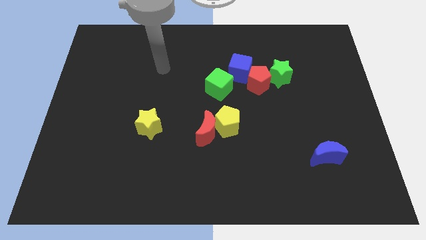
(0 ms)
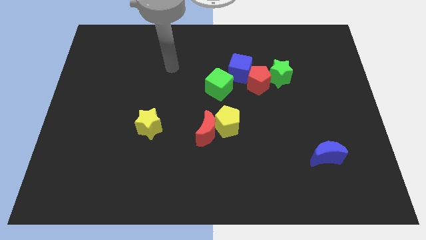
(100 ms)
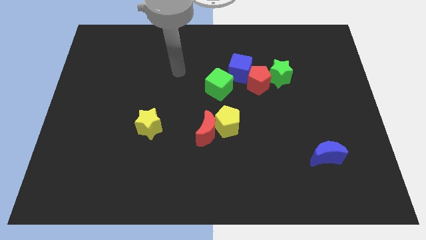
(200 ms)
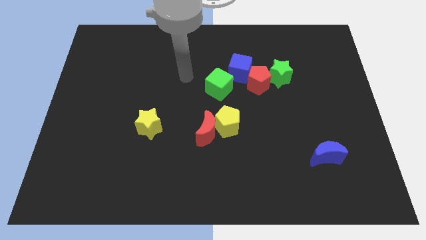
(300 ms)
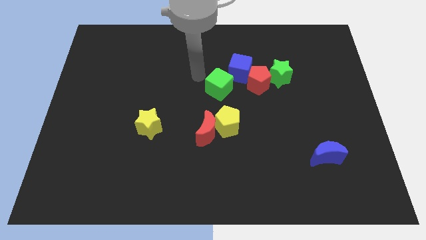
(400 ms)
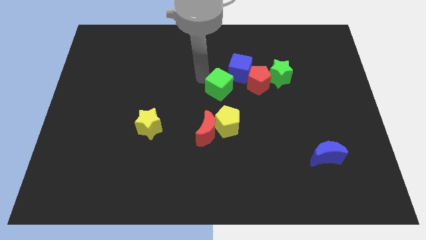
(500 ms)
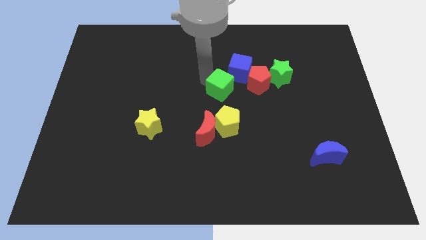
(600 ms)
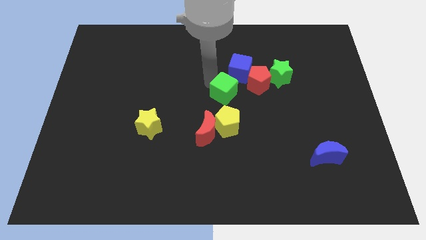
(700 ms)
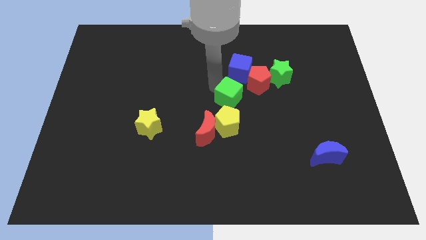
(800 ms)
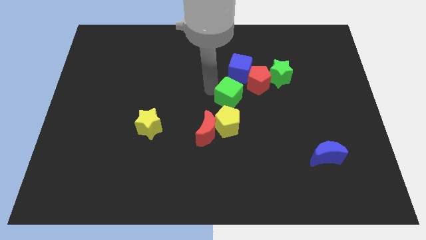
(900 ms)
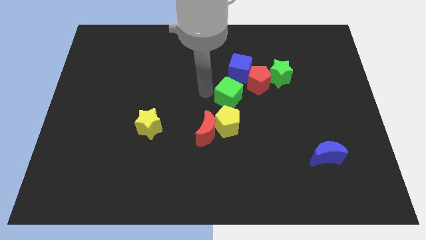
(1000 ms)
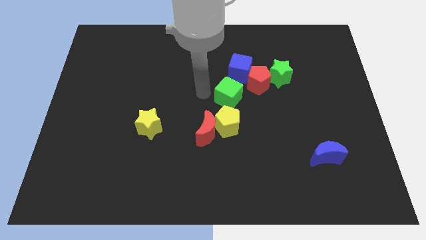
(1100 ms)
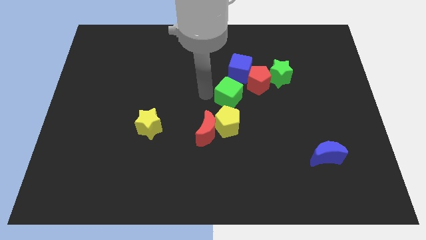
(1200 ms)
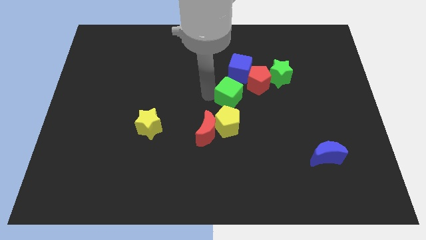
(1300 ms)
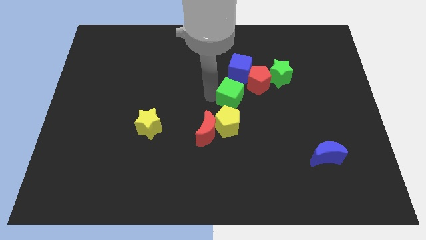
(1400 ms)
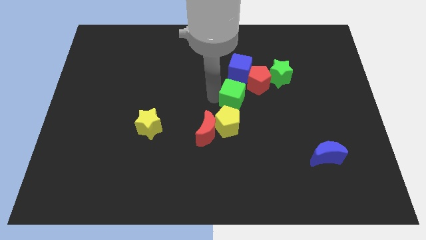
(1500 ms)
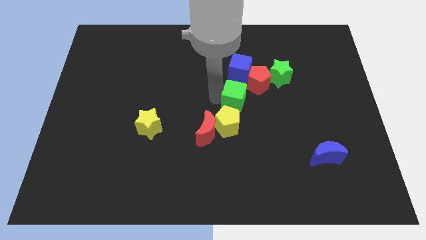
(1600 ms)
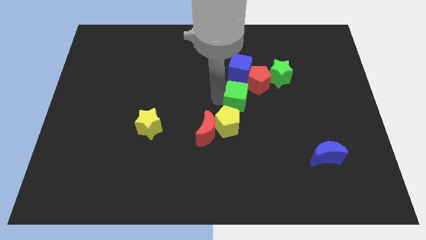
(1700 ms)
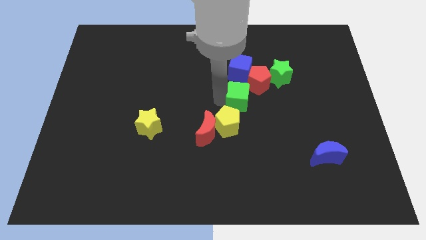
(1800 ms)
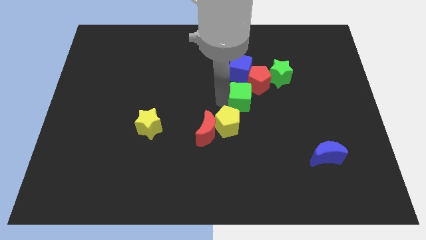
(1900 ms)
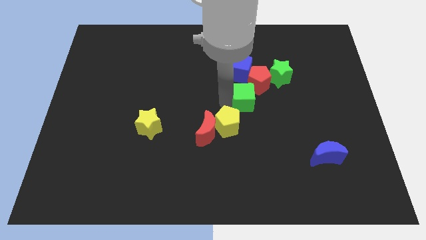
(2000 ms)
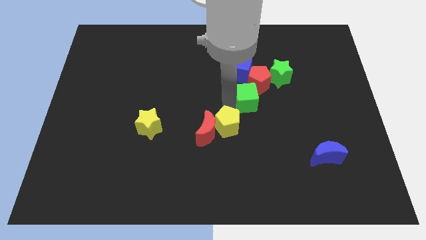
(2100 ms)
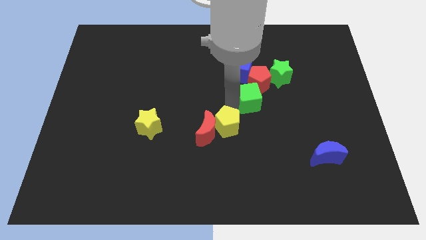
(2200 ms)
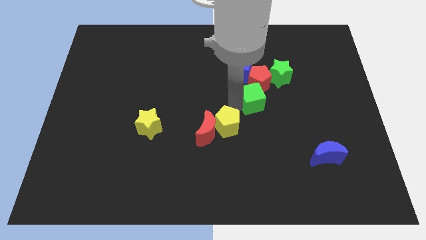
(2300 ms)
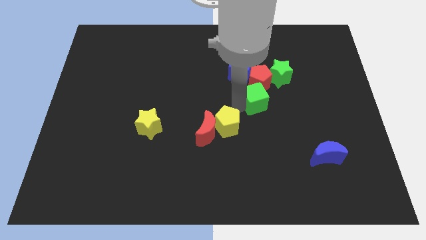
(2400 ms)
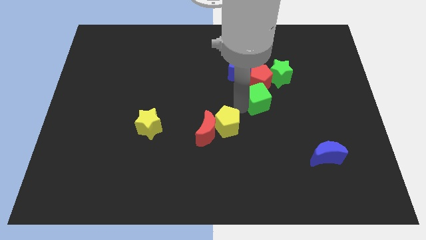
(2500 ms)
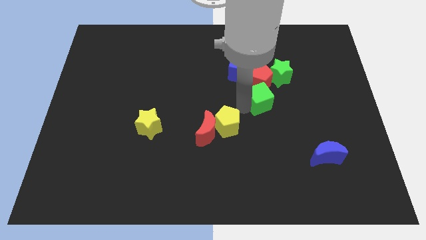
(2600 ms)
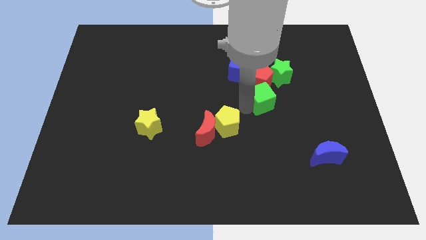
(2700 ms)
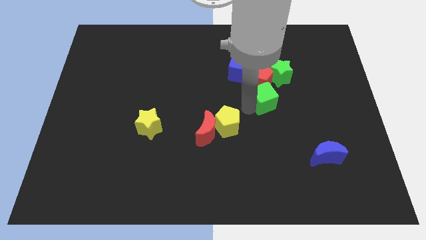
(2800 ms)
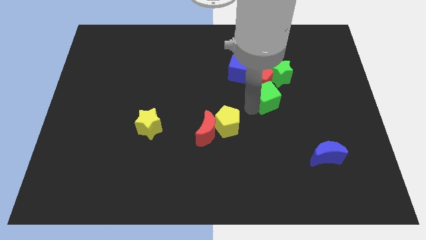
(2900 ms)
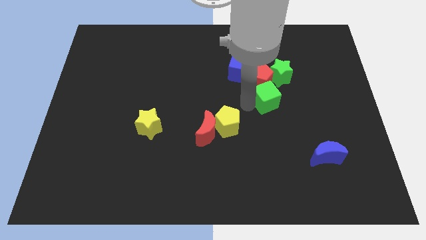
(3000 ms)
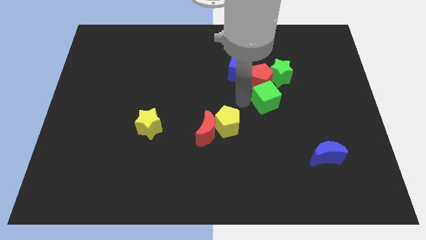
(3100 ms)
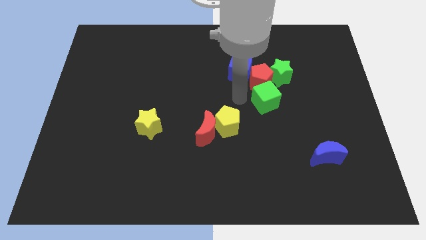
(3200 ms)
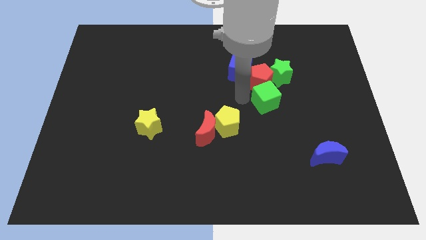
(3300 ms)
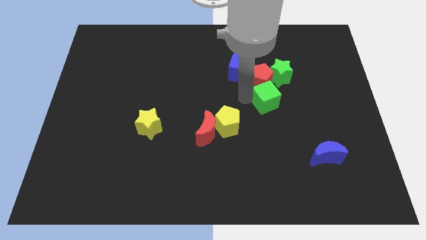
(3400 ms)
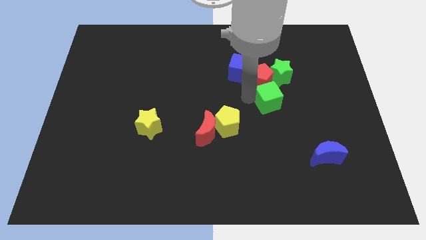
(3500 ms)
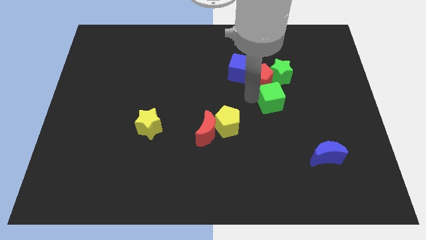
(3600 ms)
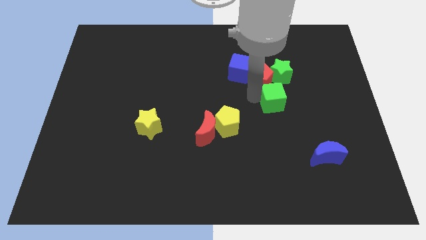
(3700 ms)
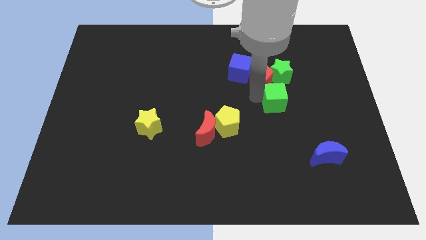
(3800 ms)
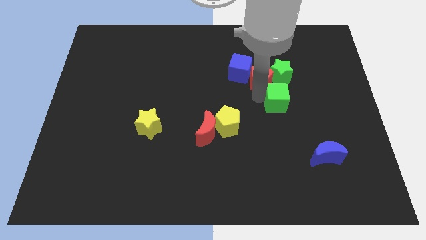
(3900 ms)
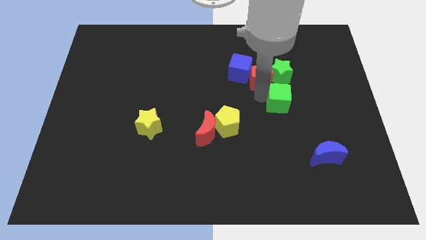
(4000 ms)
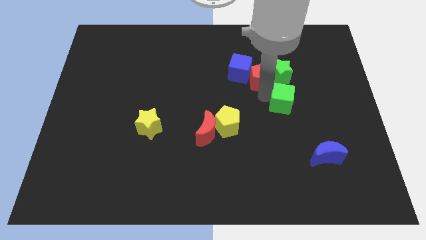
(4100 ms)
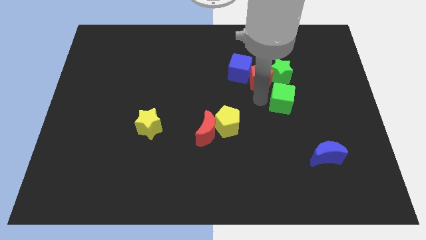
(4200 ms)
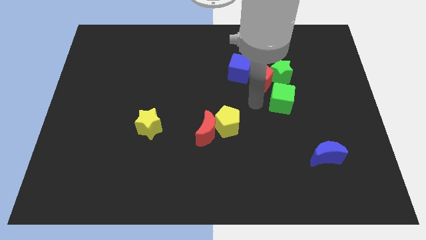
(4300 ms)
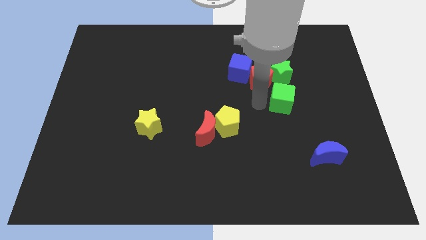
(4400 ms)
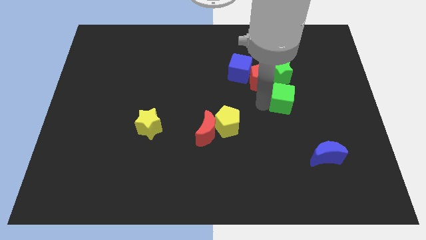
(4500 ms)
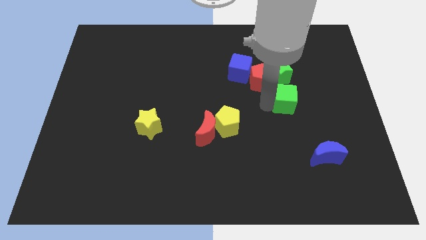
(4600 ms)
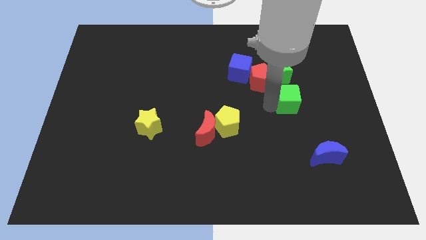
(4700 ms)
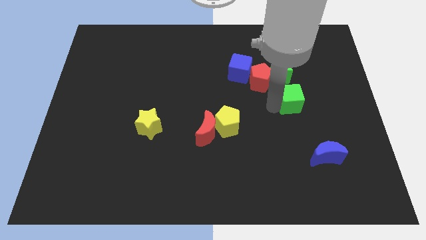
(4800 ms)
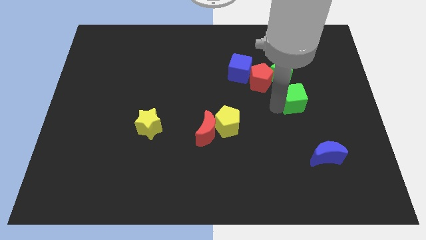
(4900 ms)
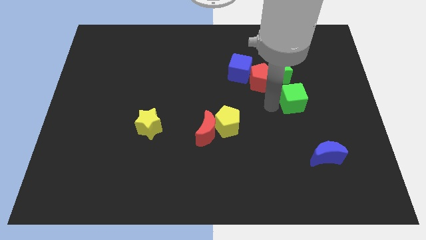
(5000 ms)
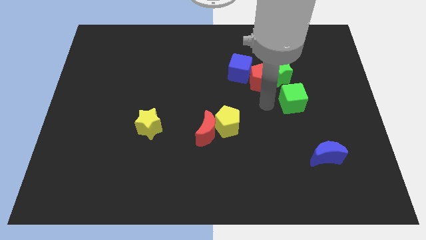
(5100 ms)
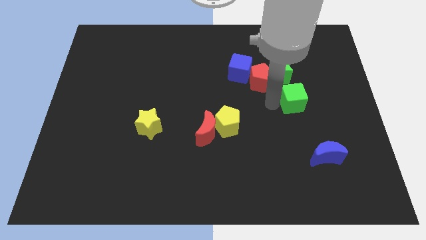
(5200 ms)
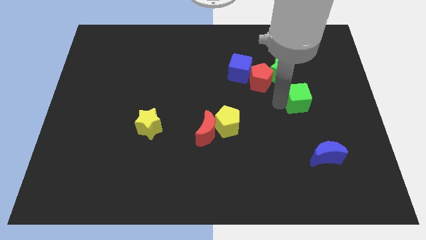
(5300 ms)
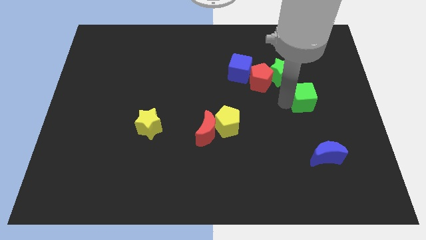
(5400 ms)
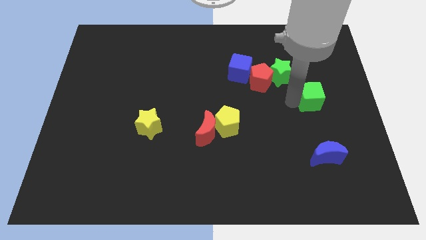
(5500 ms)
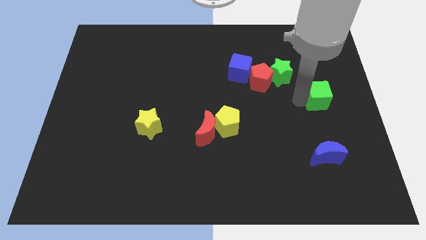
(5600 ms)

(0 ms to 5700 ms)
slide the green cube to the right side

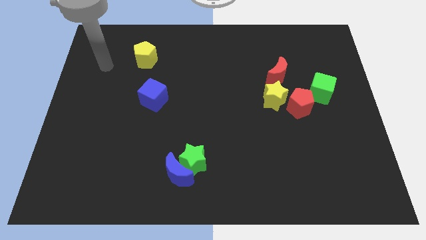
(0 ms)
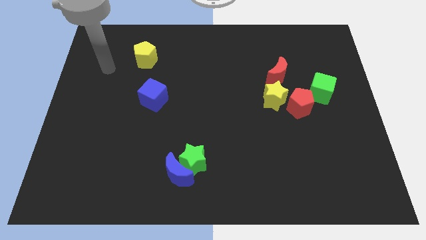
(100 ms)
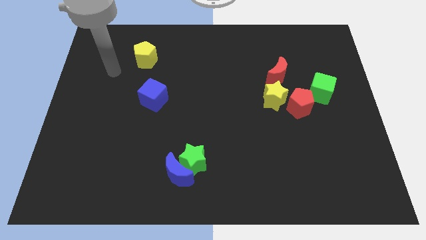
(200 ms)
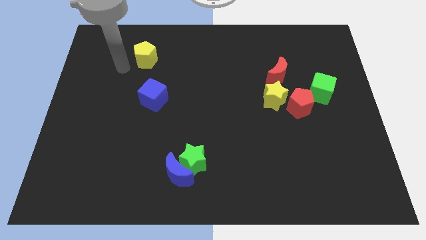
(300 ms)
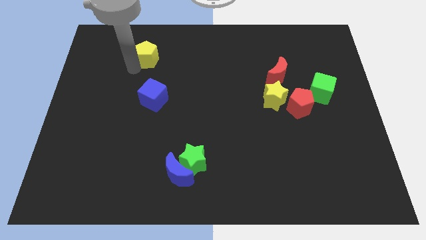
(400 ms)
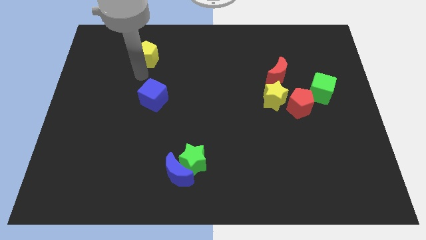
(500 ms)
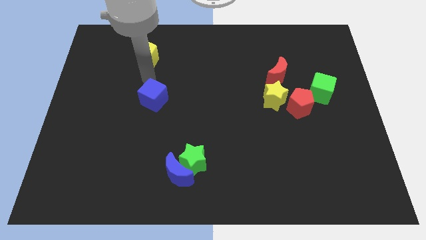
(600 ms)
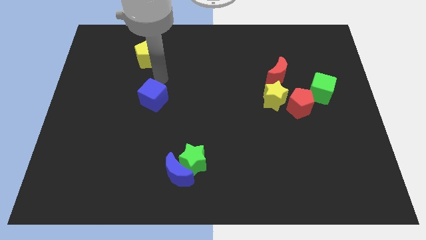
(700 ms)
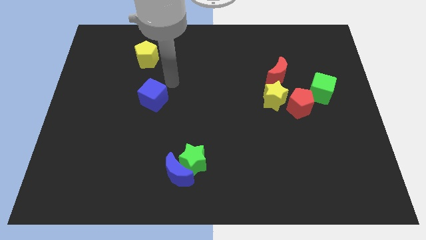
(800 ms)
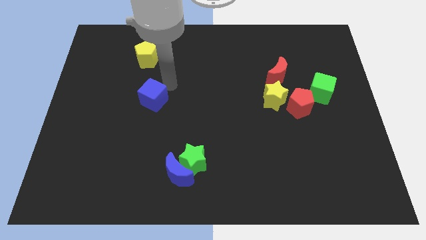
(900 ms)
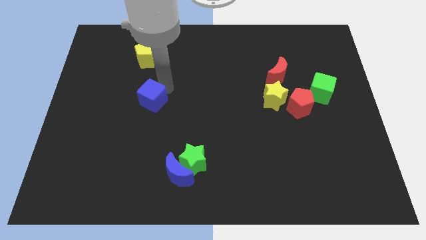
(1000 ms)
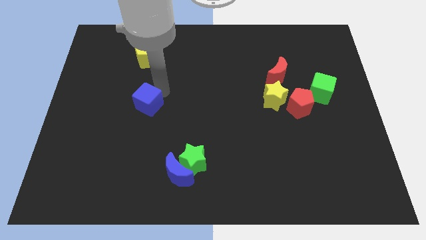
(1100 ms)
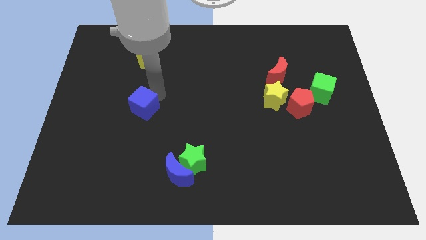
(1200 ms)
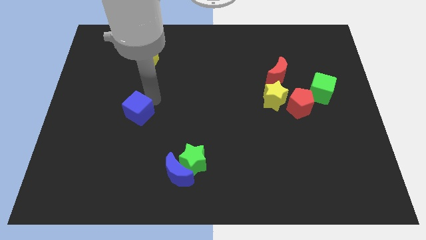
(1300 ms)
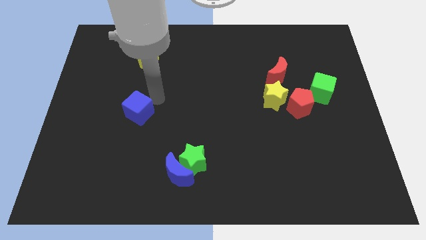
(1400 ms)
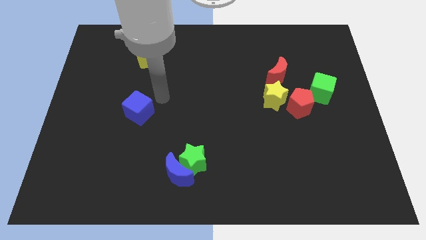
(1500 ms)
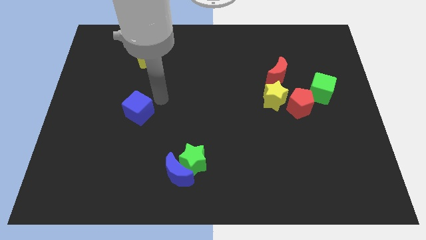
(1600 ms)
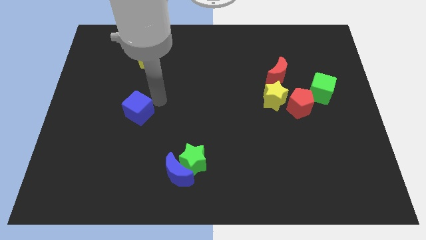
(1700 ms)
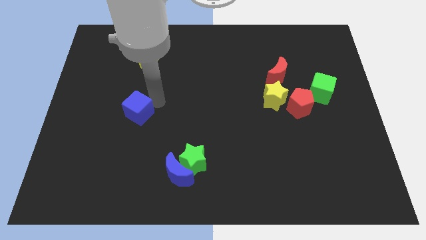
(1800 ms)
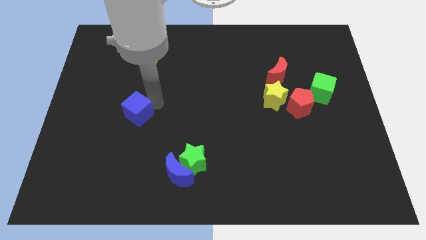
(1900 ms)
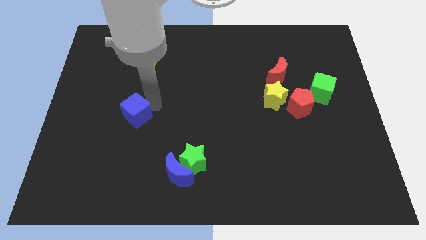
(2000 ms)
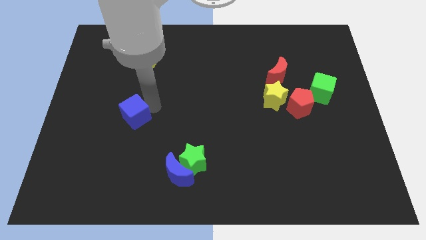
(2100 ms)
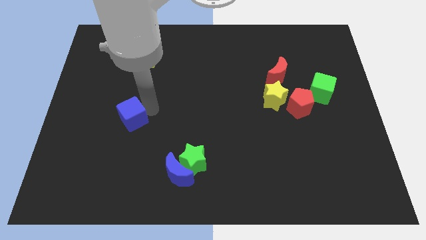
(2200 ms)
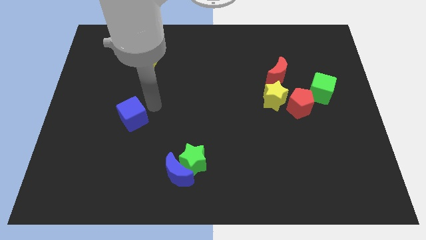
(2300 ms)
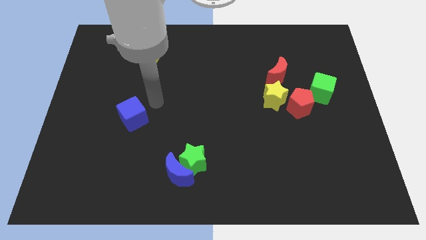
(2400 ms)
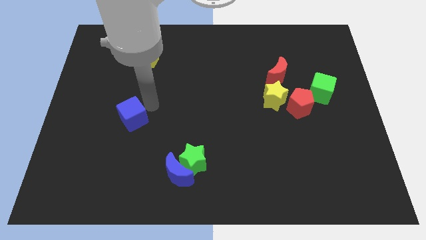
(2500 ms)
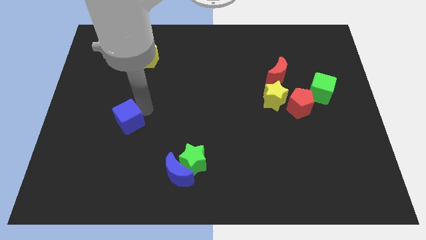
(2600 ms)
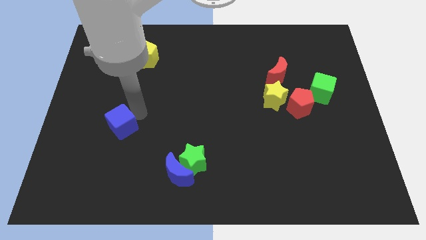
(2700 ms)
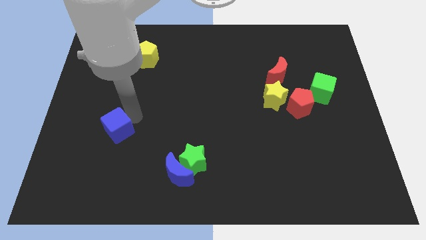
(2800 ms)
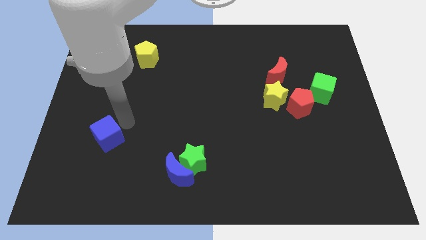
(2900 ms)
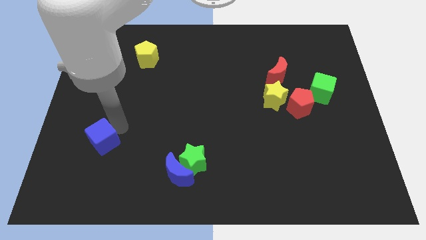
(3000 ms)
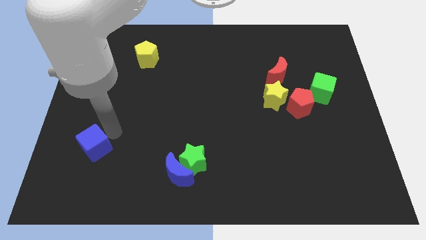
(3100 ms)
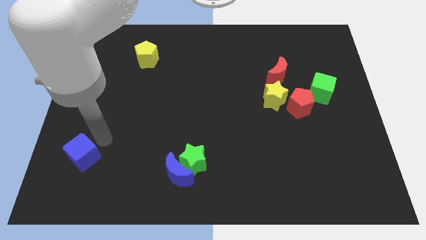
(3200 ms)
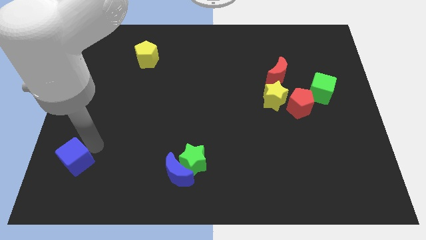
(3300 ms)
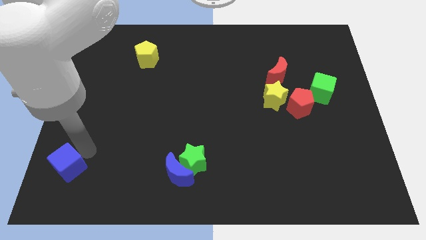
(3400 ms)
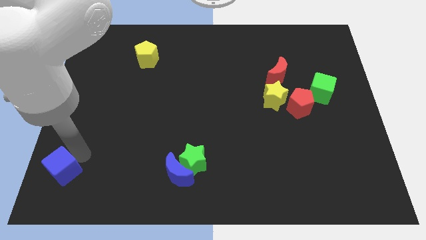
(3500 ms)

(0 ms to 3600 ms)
push the blue cube to the bottom left corner
